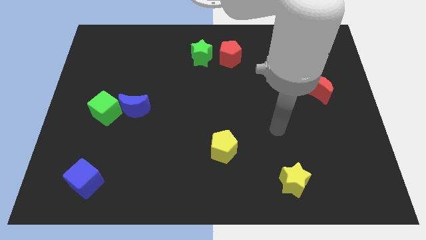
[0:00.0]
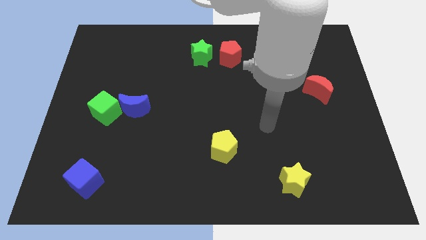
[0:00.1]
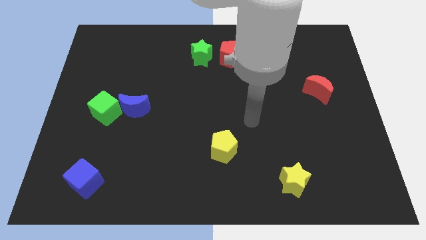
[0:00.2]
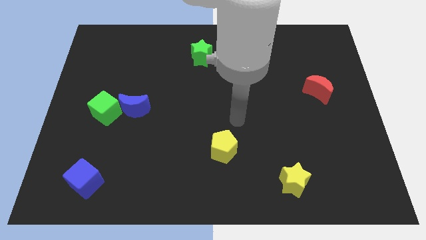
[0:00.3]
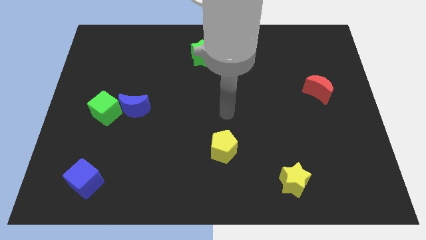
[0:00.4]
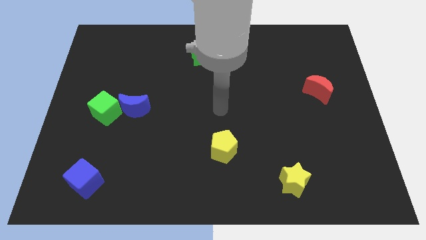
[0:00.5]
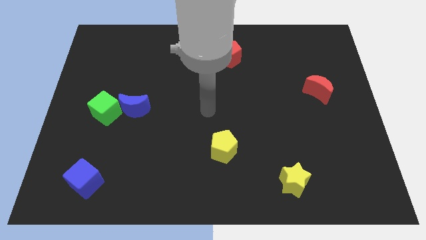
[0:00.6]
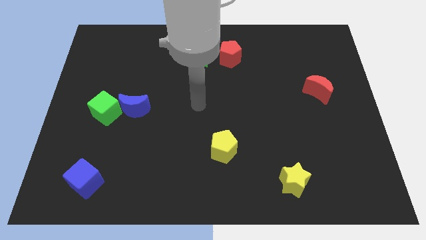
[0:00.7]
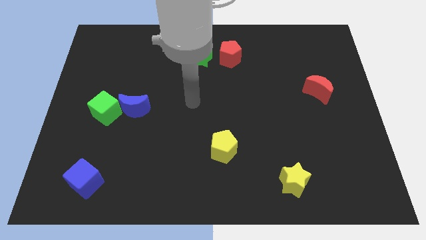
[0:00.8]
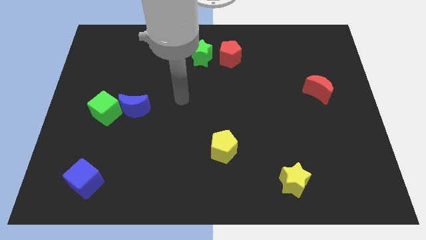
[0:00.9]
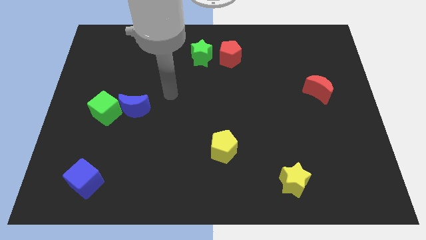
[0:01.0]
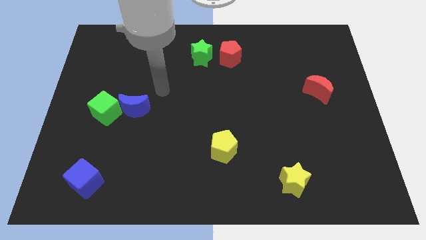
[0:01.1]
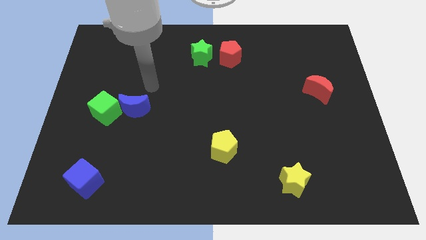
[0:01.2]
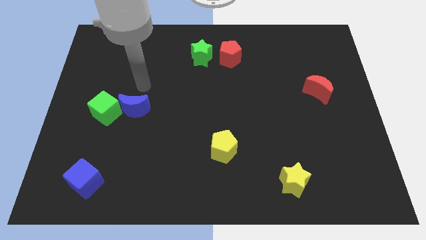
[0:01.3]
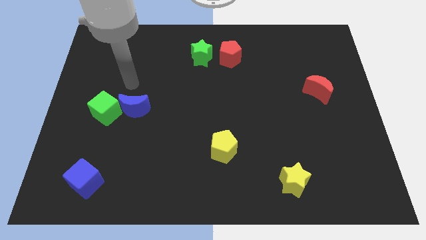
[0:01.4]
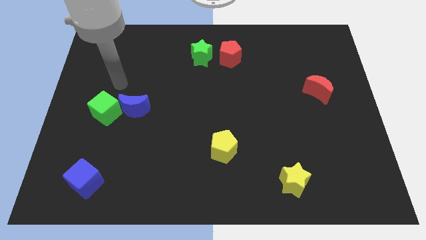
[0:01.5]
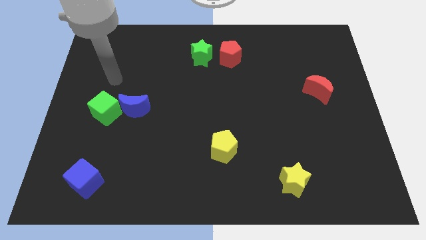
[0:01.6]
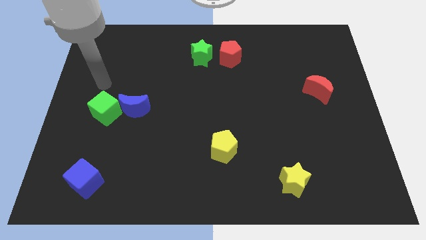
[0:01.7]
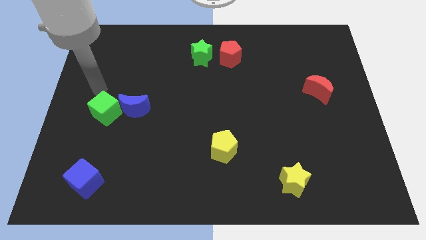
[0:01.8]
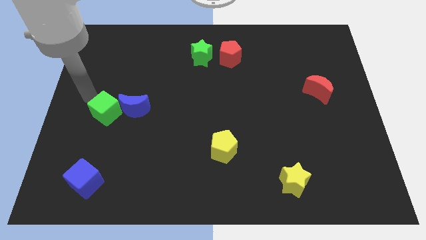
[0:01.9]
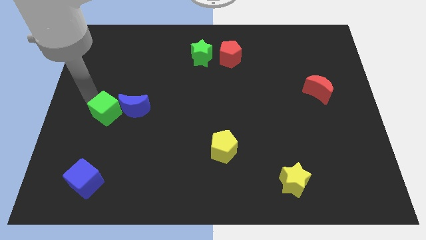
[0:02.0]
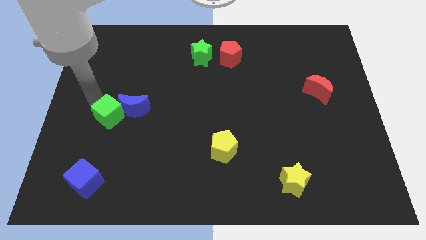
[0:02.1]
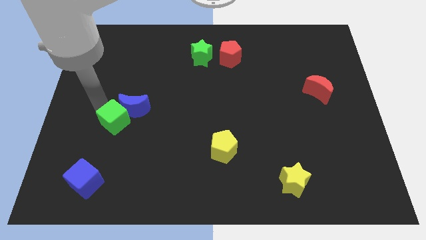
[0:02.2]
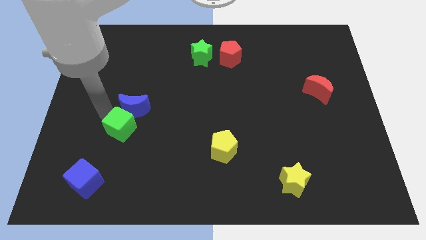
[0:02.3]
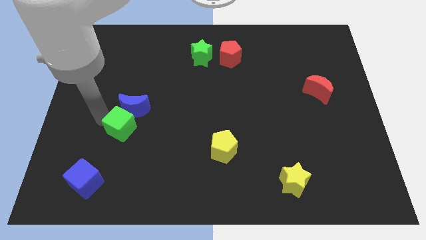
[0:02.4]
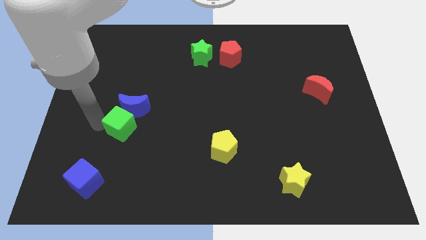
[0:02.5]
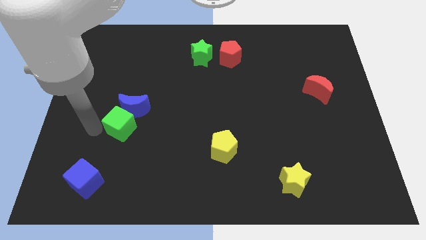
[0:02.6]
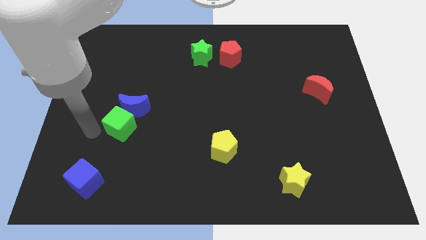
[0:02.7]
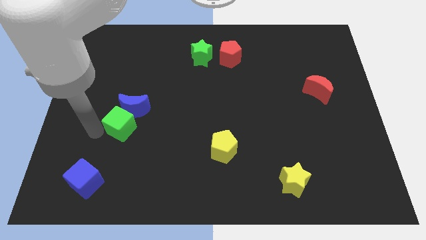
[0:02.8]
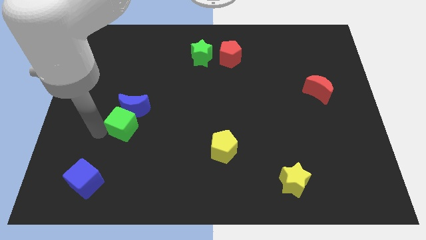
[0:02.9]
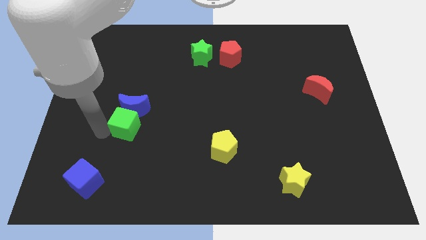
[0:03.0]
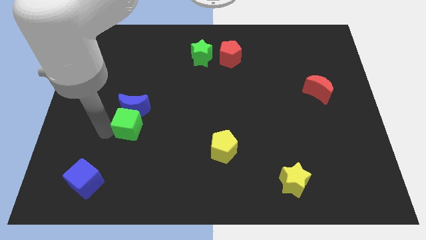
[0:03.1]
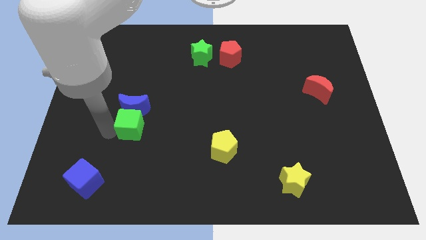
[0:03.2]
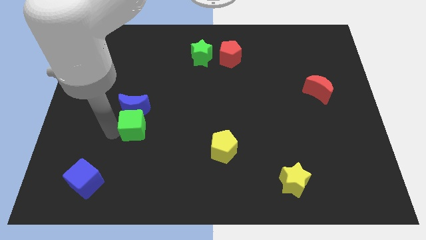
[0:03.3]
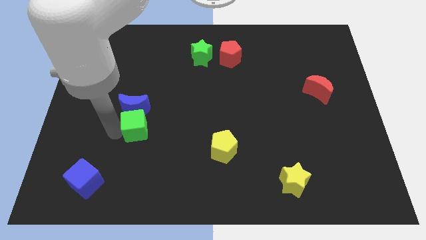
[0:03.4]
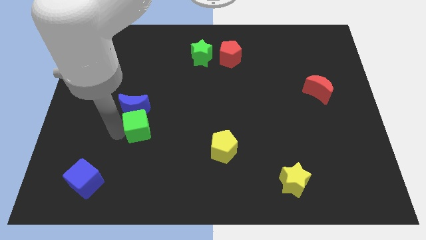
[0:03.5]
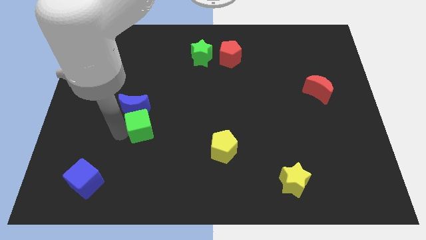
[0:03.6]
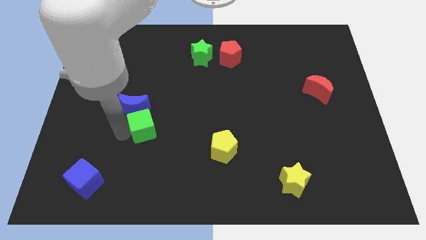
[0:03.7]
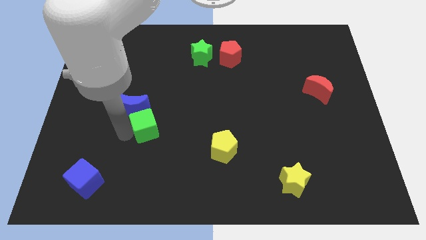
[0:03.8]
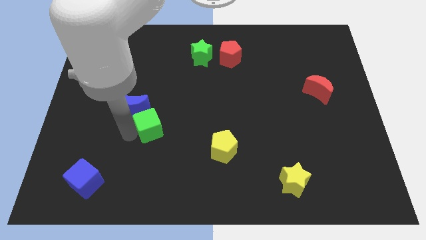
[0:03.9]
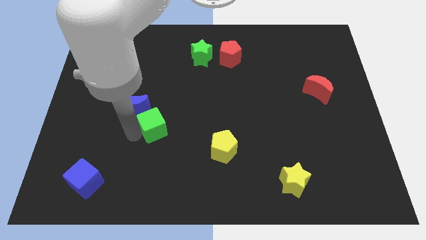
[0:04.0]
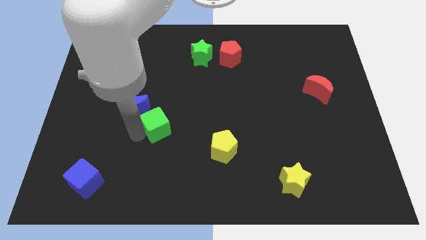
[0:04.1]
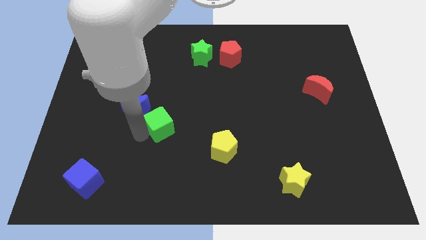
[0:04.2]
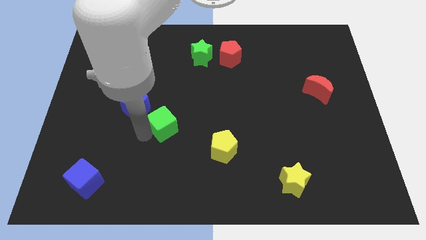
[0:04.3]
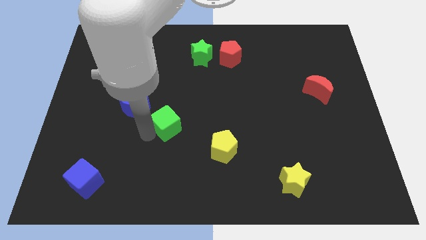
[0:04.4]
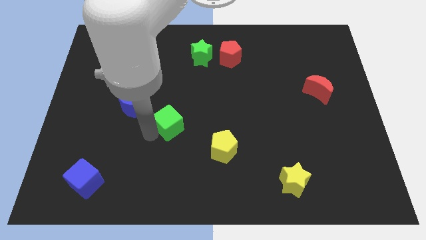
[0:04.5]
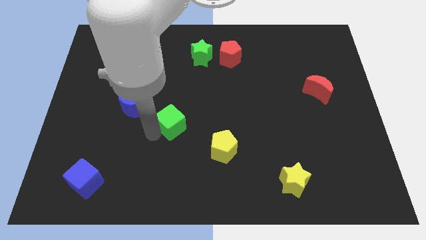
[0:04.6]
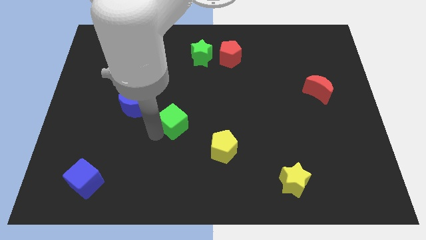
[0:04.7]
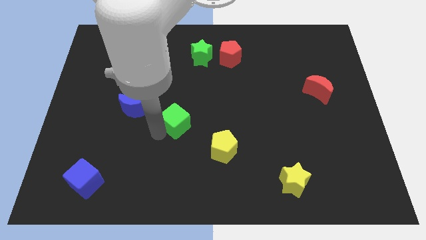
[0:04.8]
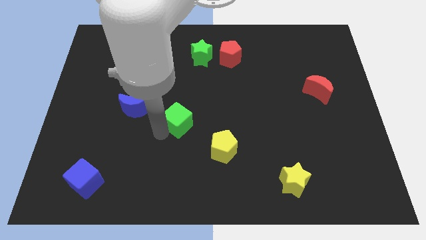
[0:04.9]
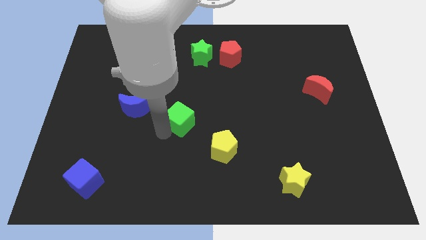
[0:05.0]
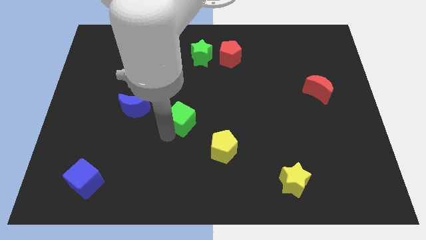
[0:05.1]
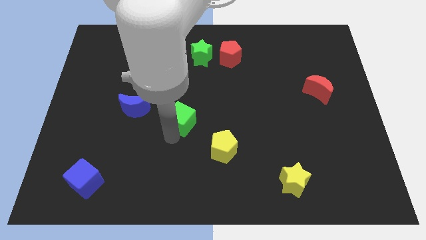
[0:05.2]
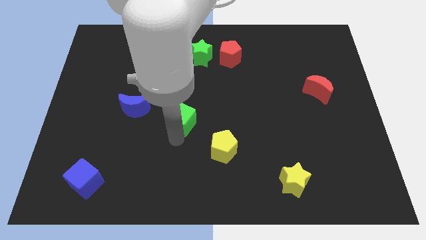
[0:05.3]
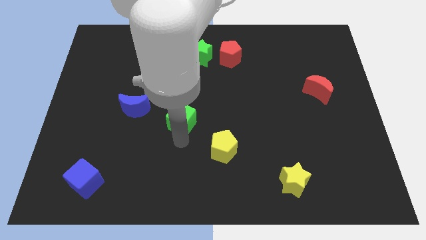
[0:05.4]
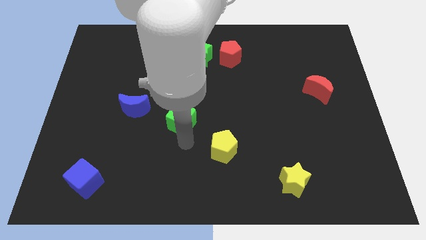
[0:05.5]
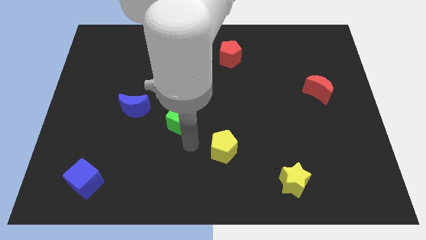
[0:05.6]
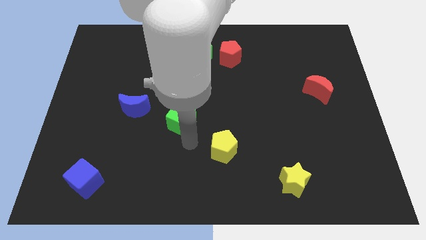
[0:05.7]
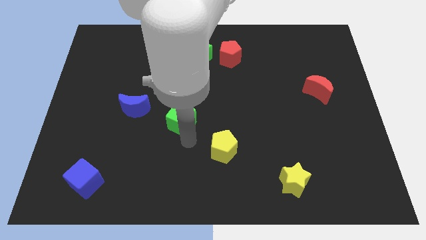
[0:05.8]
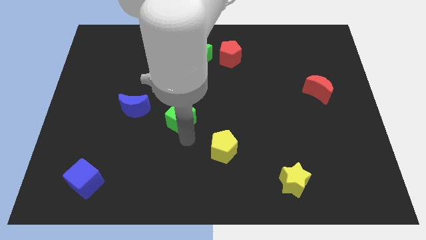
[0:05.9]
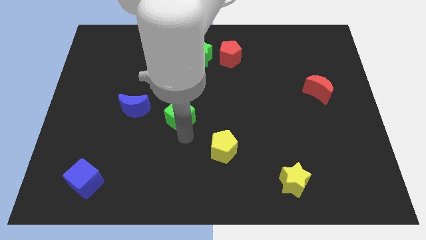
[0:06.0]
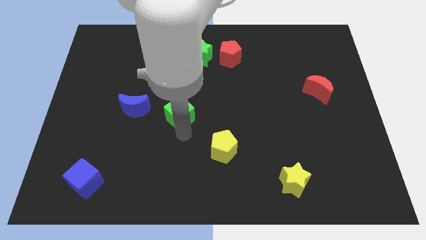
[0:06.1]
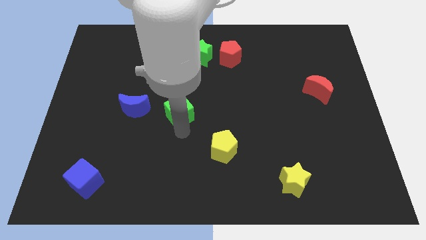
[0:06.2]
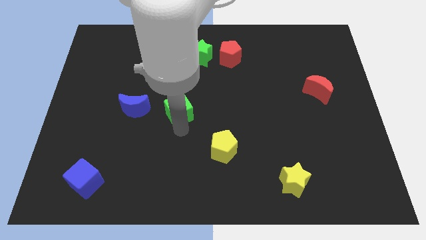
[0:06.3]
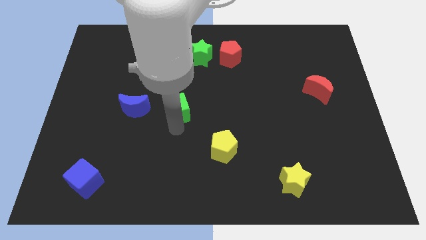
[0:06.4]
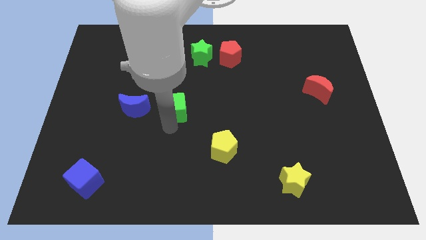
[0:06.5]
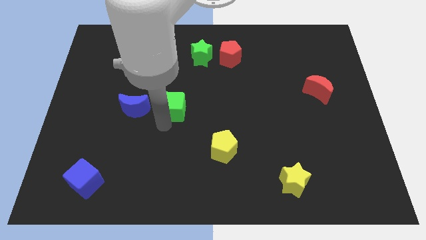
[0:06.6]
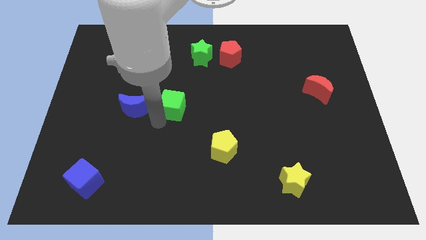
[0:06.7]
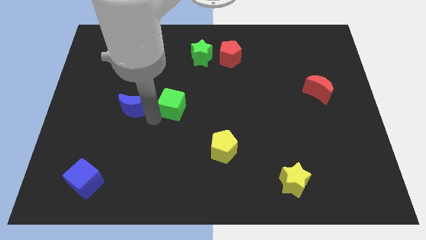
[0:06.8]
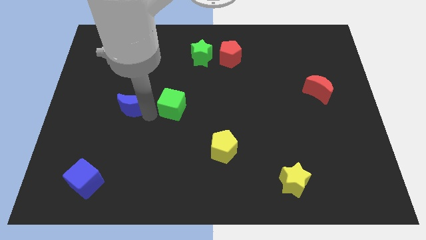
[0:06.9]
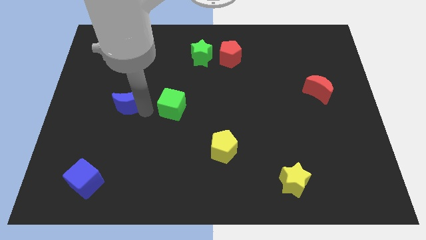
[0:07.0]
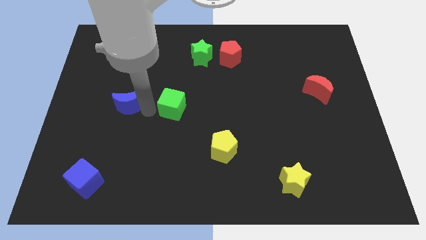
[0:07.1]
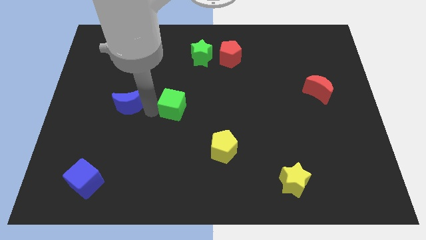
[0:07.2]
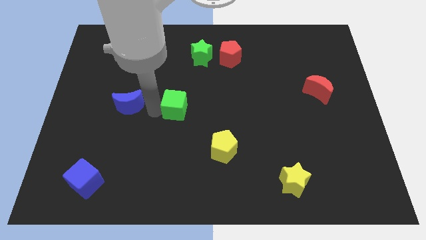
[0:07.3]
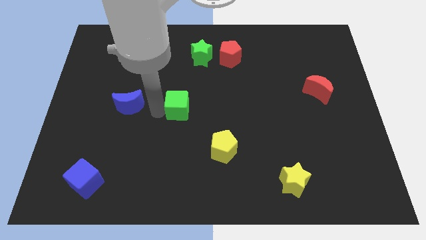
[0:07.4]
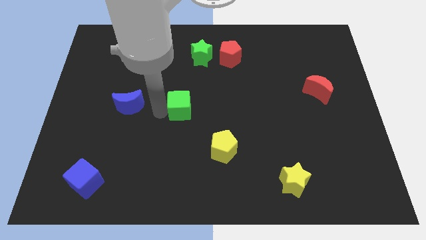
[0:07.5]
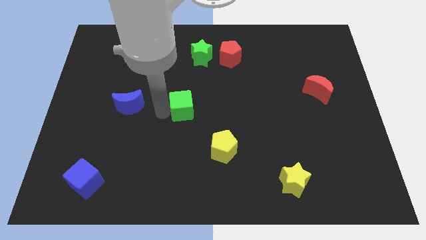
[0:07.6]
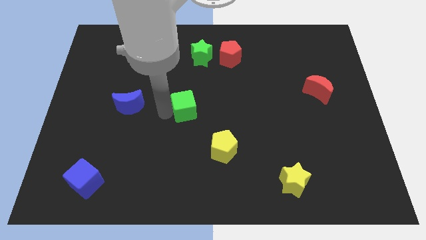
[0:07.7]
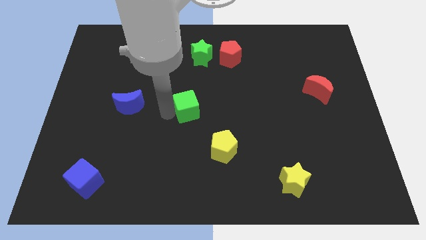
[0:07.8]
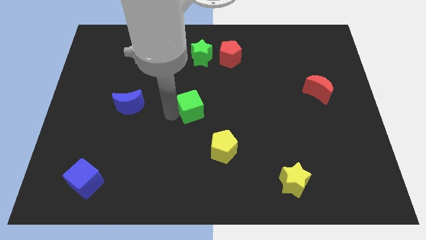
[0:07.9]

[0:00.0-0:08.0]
push the green cube right
